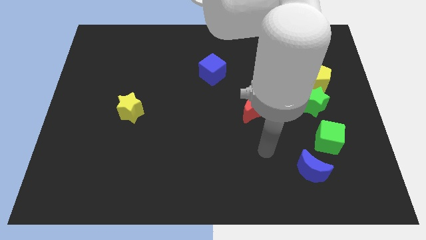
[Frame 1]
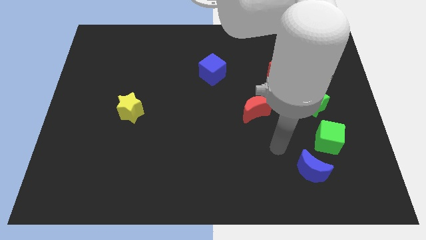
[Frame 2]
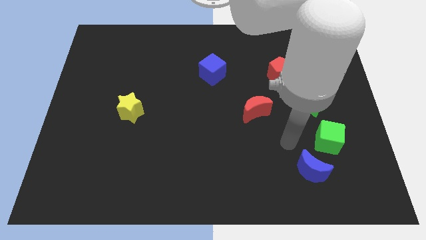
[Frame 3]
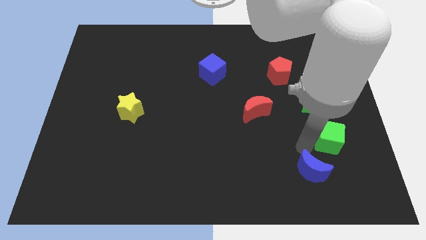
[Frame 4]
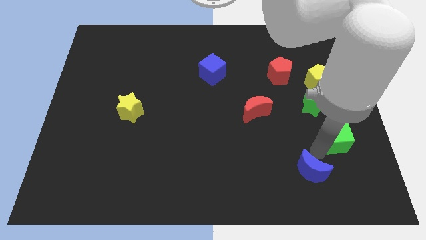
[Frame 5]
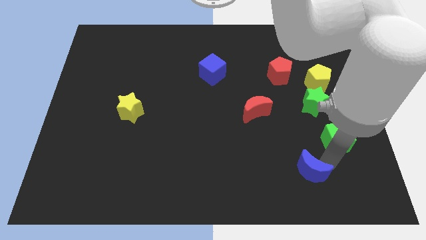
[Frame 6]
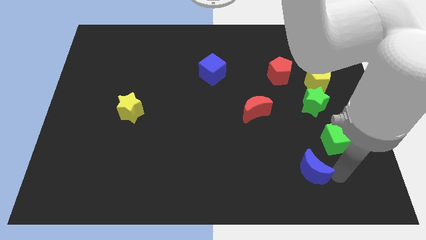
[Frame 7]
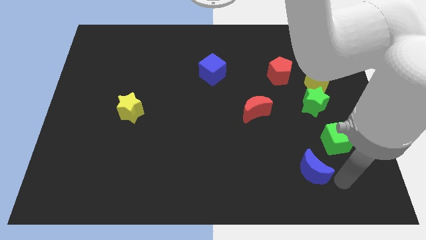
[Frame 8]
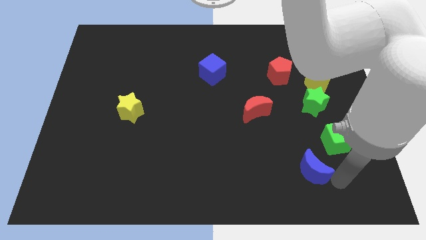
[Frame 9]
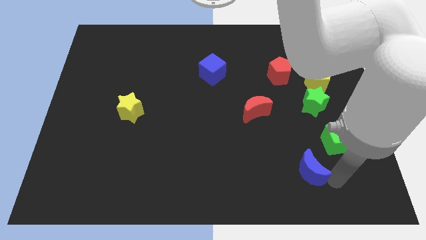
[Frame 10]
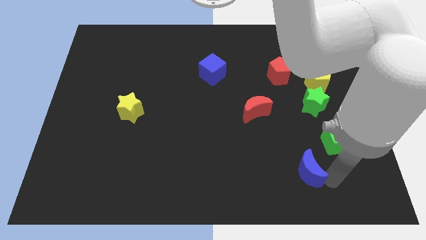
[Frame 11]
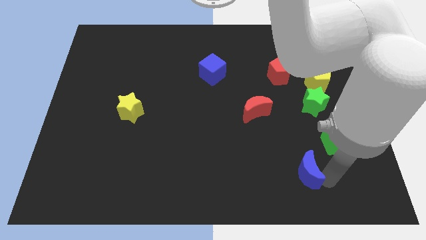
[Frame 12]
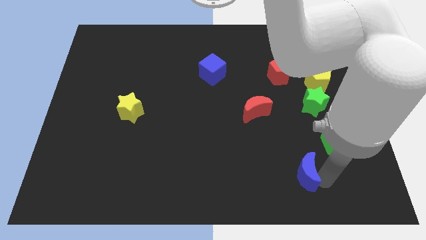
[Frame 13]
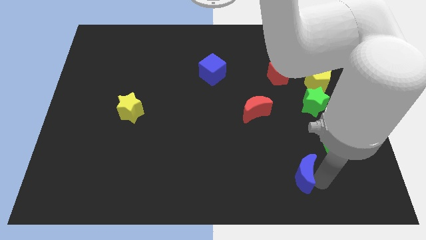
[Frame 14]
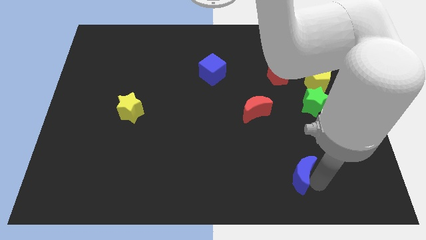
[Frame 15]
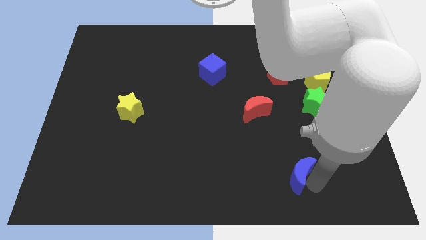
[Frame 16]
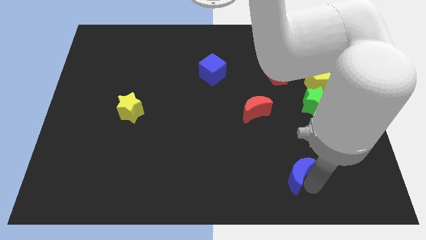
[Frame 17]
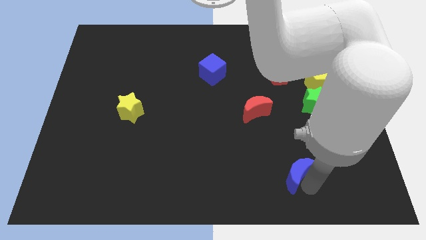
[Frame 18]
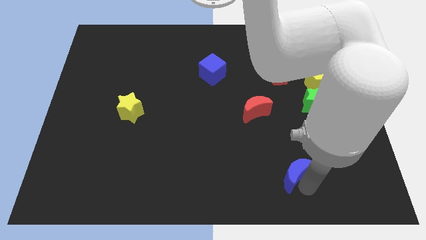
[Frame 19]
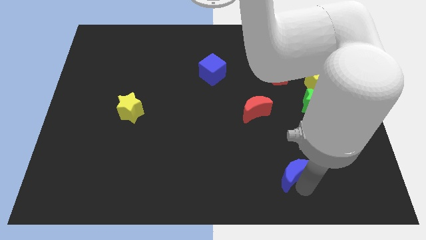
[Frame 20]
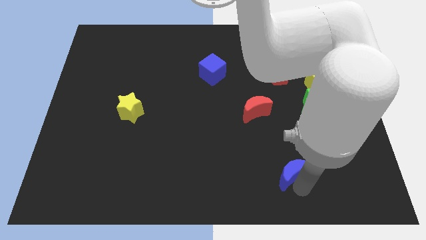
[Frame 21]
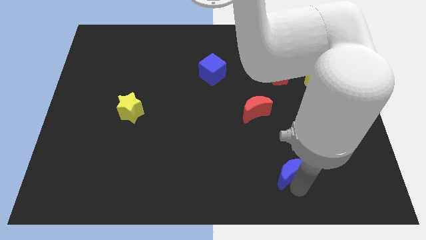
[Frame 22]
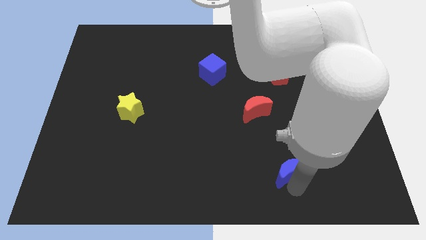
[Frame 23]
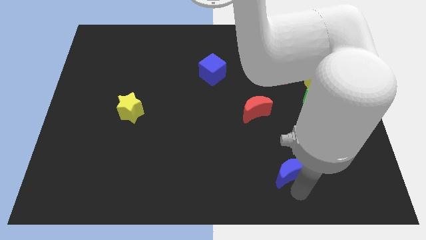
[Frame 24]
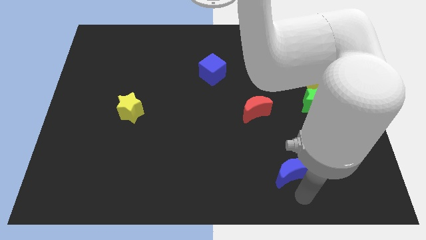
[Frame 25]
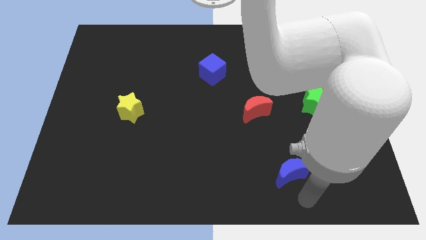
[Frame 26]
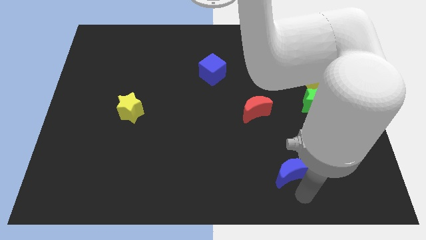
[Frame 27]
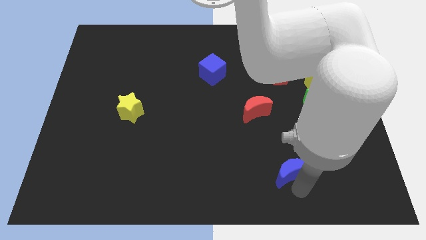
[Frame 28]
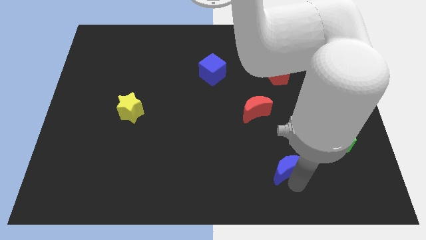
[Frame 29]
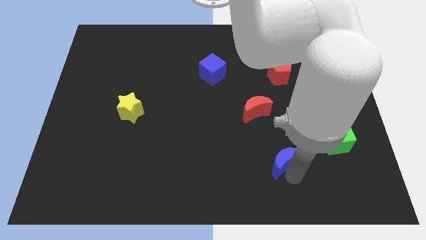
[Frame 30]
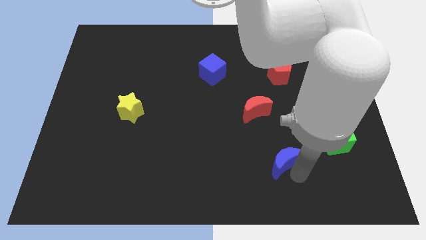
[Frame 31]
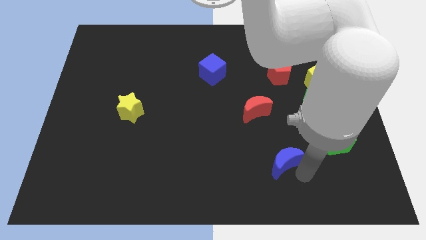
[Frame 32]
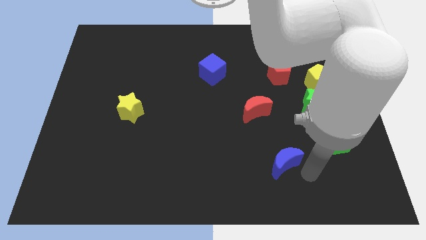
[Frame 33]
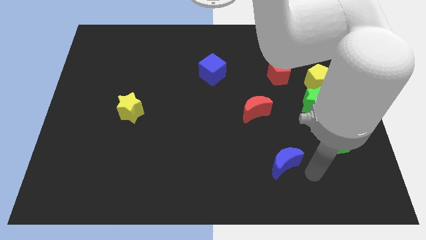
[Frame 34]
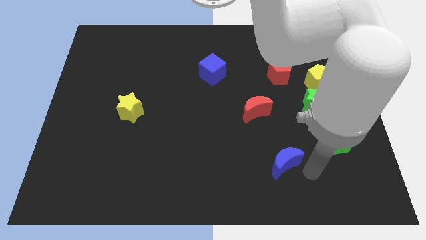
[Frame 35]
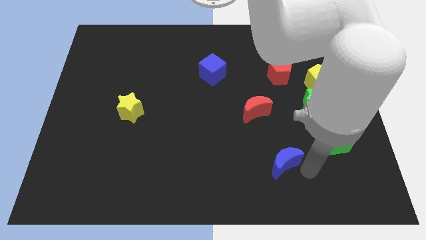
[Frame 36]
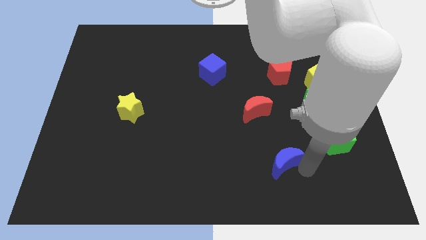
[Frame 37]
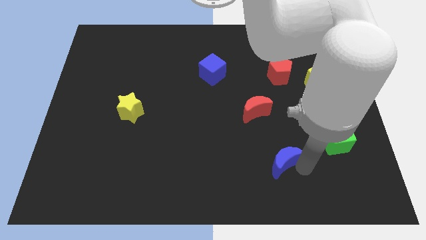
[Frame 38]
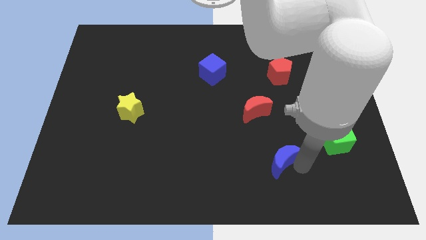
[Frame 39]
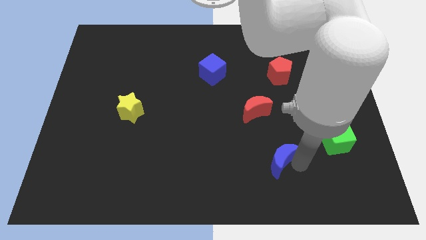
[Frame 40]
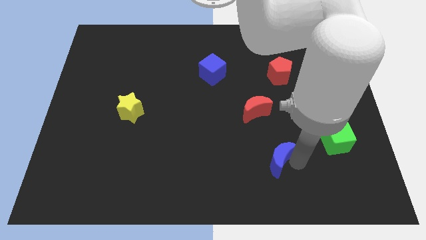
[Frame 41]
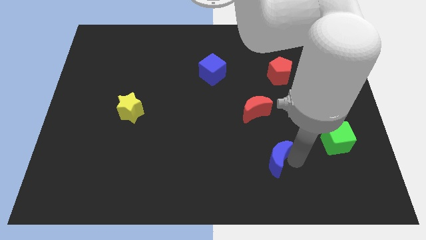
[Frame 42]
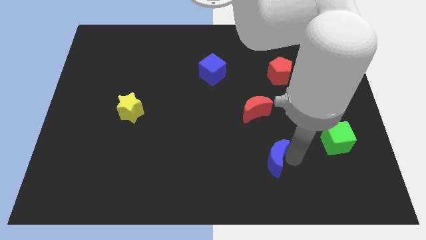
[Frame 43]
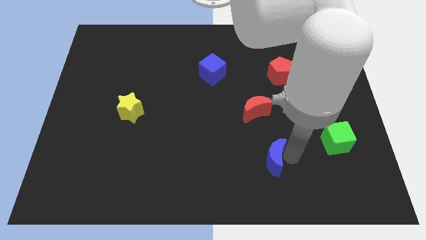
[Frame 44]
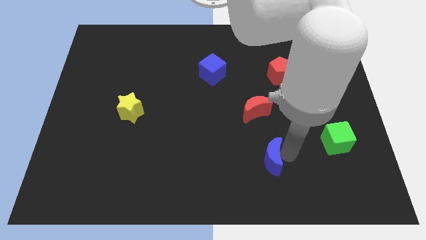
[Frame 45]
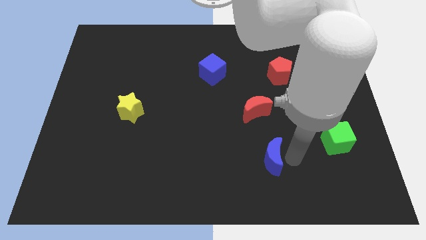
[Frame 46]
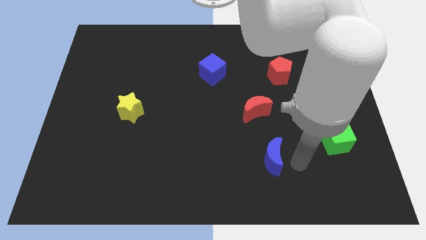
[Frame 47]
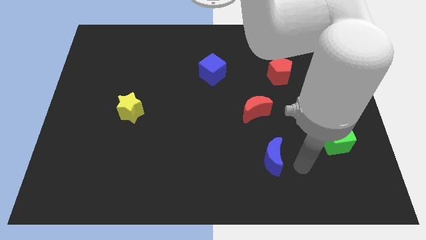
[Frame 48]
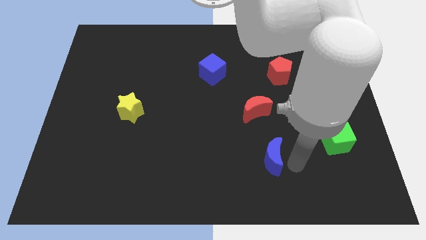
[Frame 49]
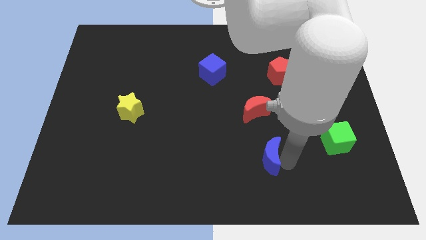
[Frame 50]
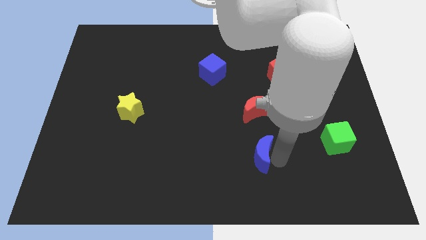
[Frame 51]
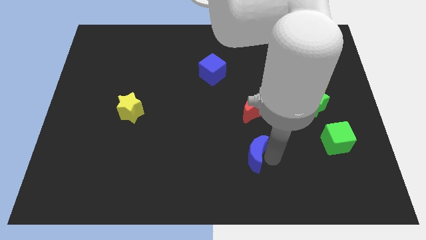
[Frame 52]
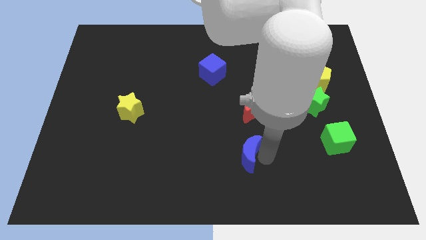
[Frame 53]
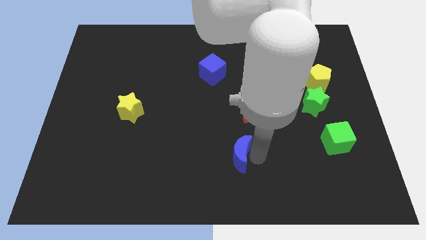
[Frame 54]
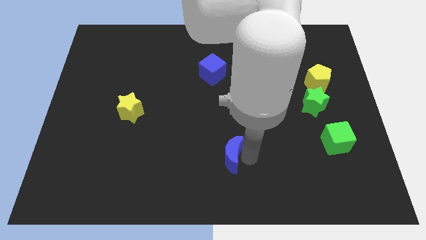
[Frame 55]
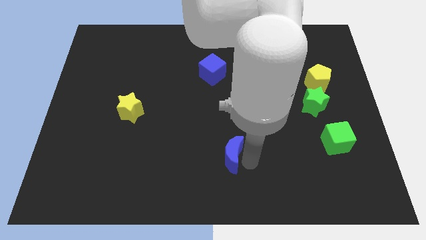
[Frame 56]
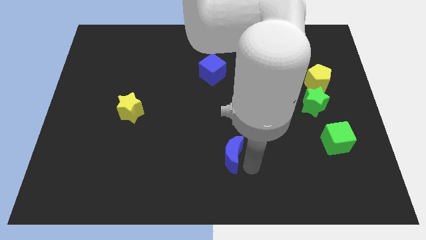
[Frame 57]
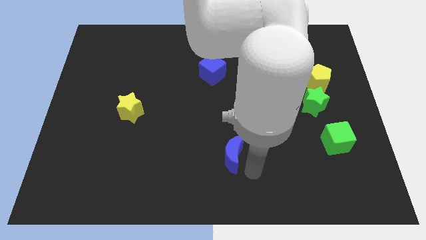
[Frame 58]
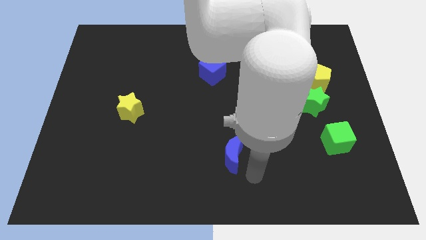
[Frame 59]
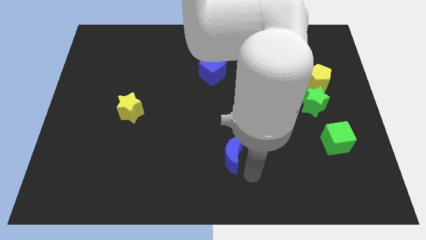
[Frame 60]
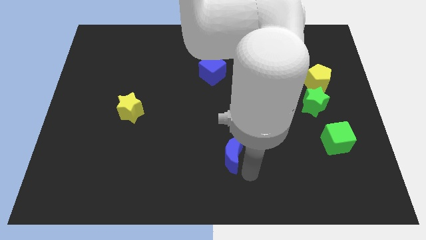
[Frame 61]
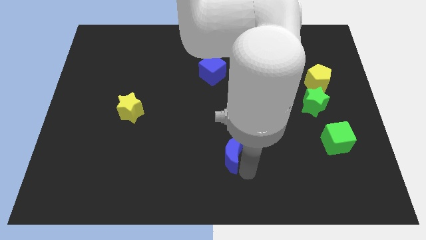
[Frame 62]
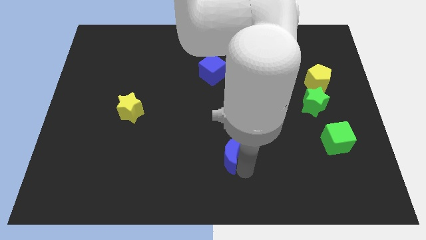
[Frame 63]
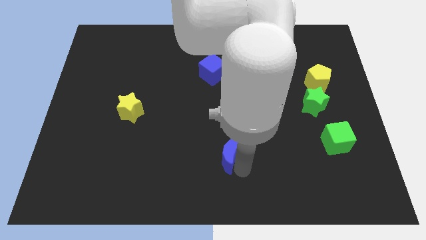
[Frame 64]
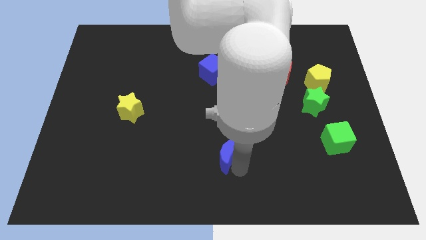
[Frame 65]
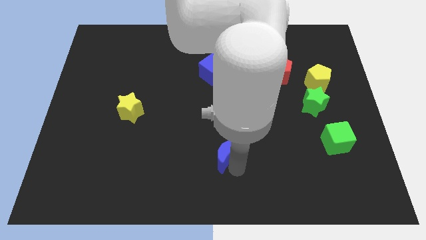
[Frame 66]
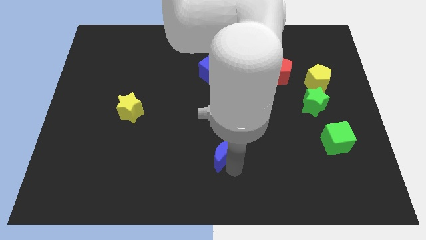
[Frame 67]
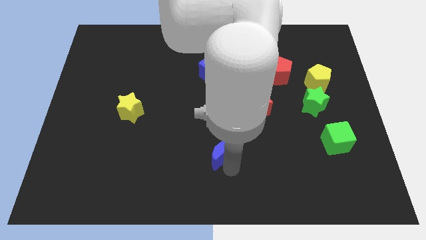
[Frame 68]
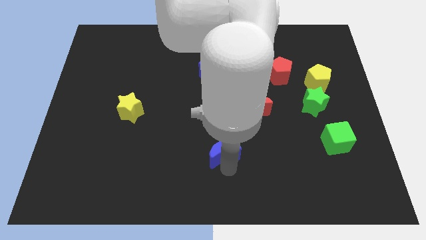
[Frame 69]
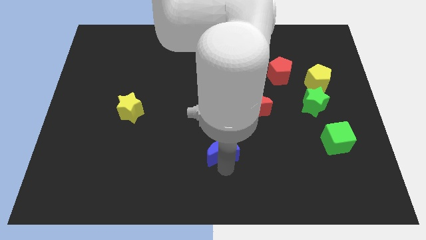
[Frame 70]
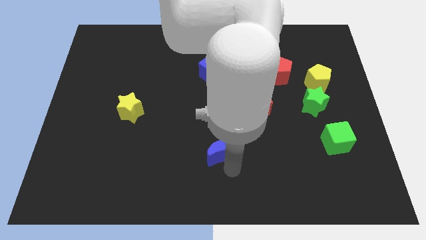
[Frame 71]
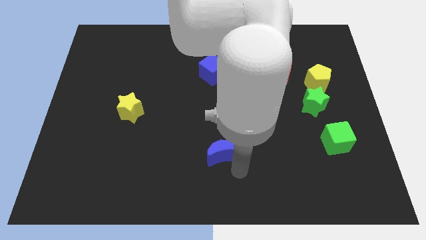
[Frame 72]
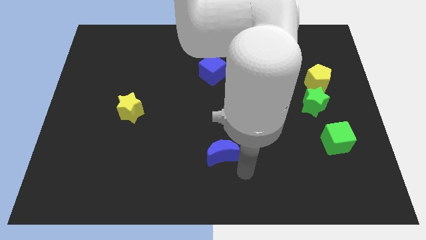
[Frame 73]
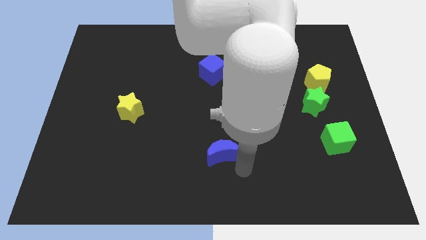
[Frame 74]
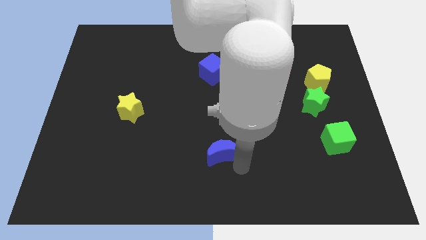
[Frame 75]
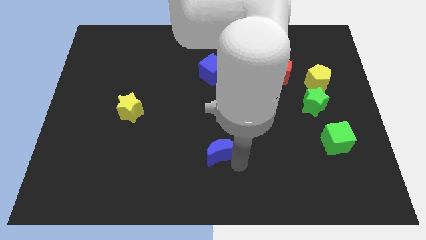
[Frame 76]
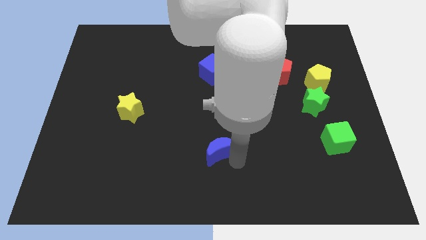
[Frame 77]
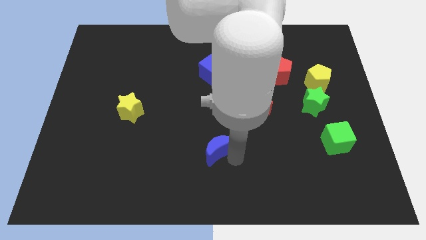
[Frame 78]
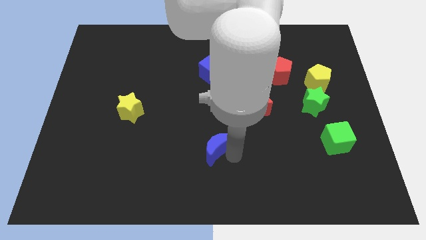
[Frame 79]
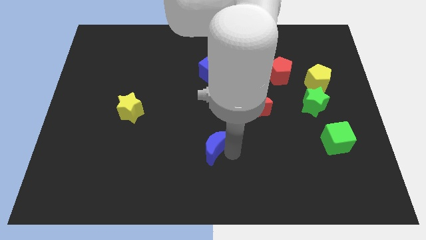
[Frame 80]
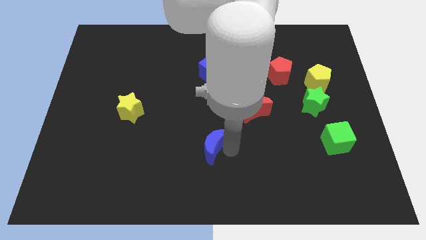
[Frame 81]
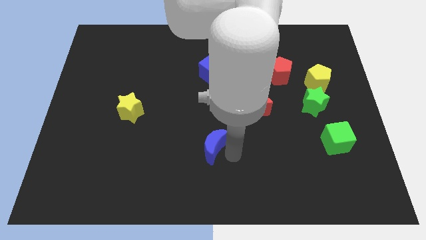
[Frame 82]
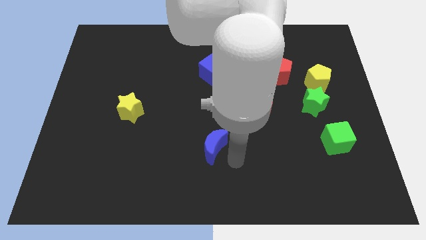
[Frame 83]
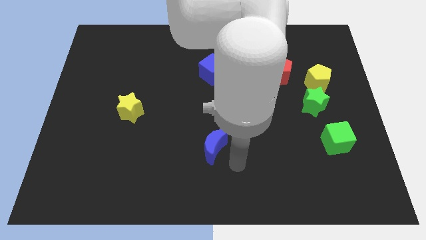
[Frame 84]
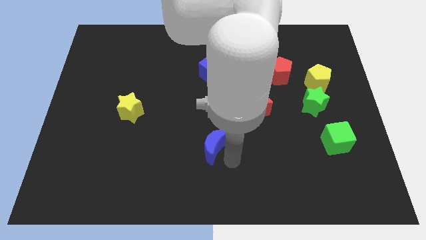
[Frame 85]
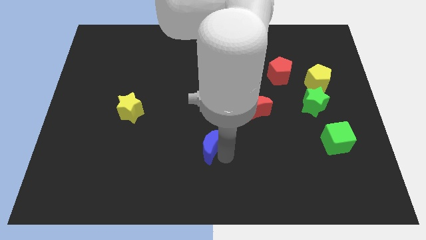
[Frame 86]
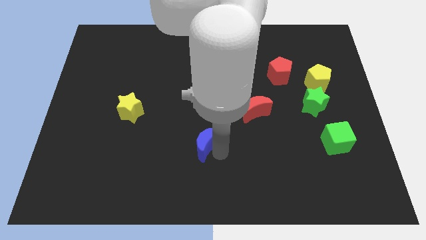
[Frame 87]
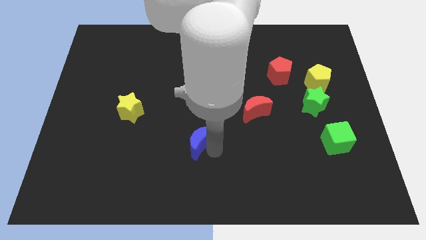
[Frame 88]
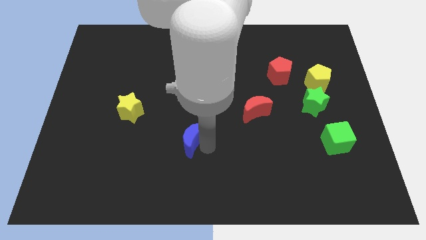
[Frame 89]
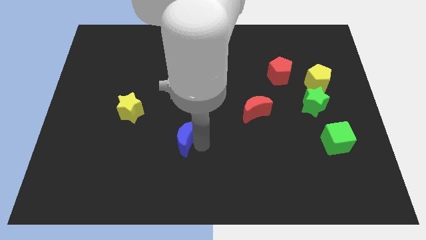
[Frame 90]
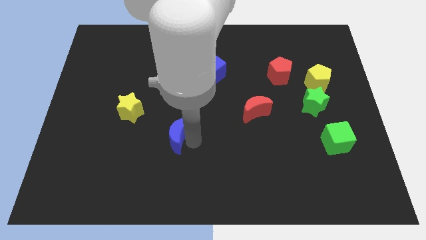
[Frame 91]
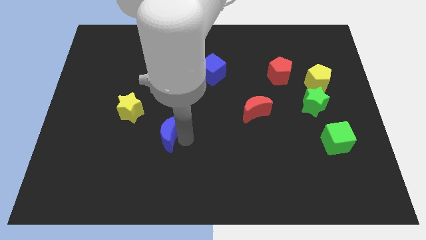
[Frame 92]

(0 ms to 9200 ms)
put the blue moon to the bottom right side of the yellow star
